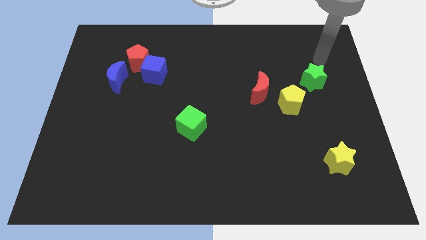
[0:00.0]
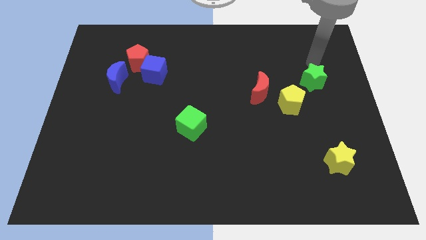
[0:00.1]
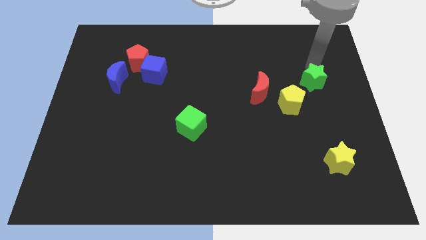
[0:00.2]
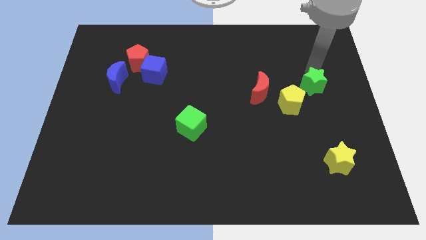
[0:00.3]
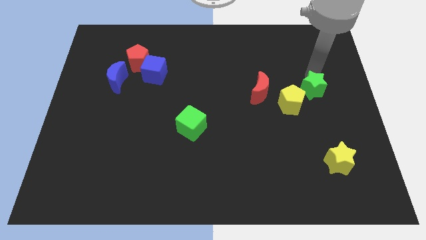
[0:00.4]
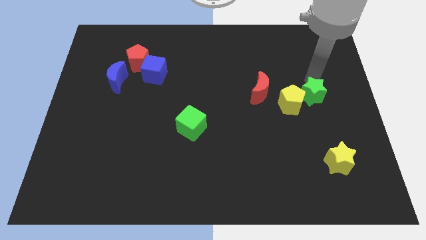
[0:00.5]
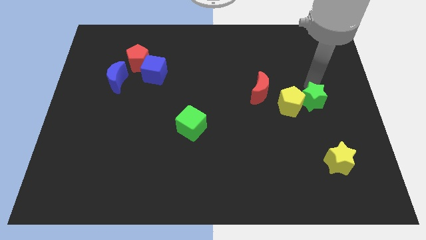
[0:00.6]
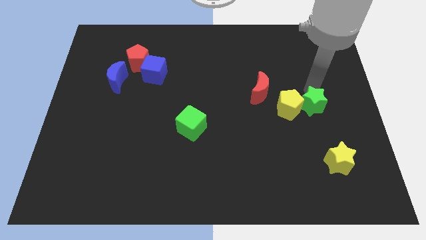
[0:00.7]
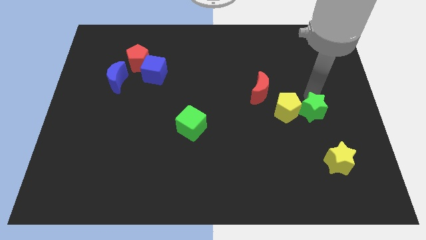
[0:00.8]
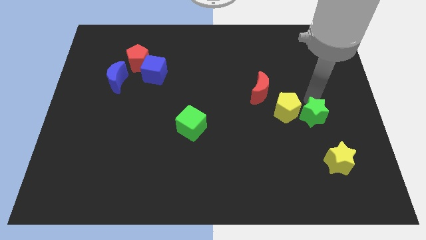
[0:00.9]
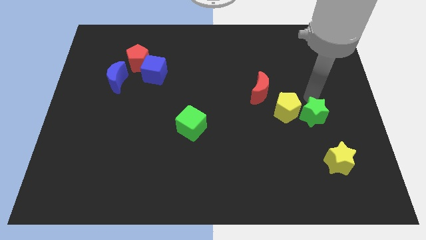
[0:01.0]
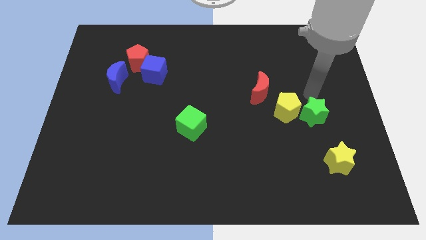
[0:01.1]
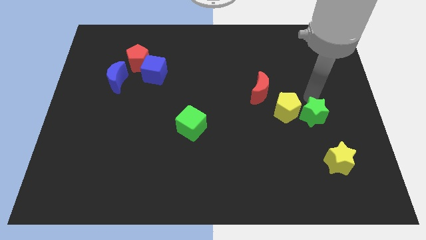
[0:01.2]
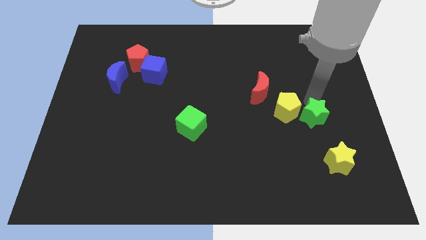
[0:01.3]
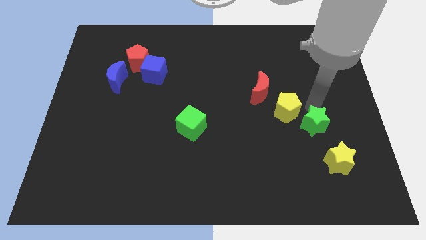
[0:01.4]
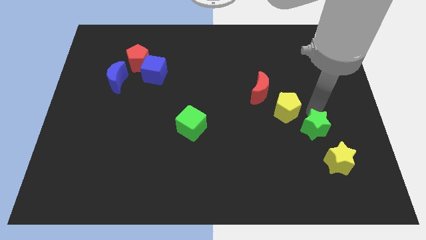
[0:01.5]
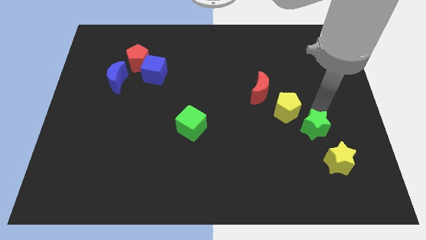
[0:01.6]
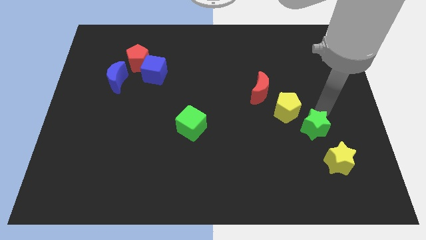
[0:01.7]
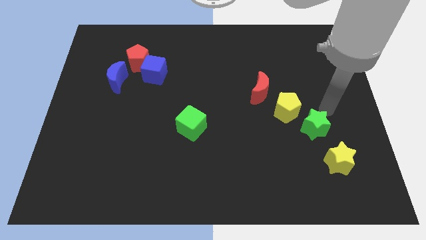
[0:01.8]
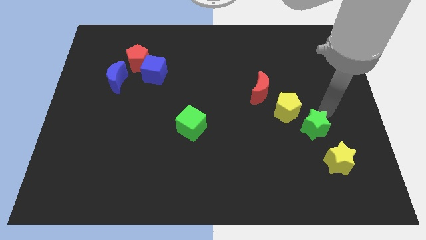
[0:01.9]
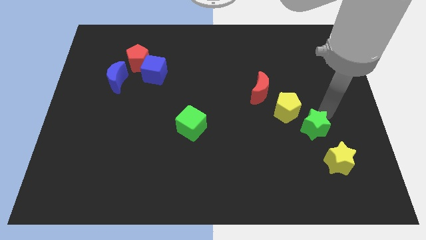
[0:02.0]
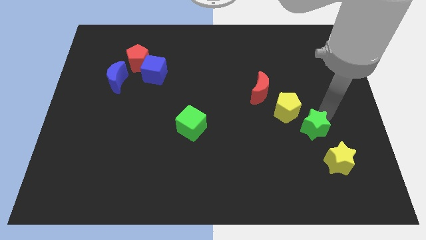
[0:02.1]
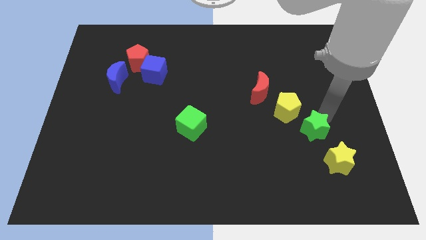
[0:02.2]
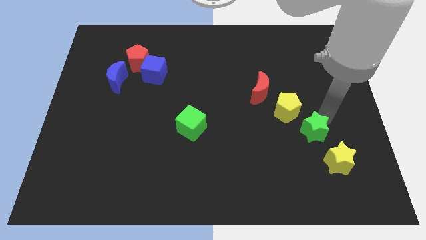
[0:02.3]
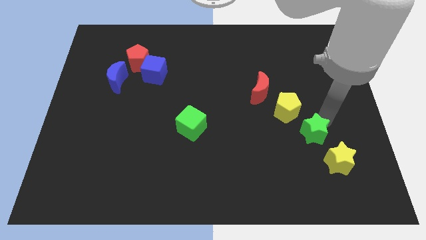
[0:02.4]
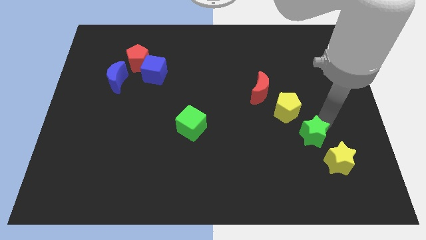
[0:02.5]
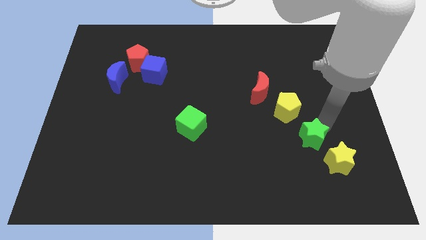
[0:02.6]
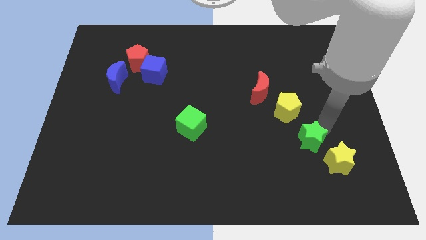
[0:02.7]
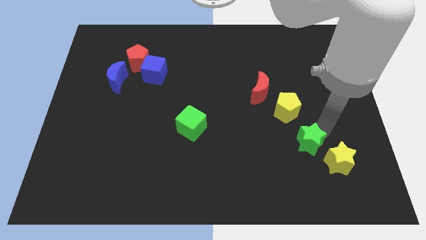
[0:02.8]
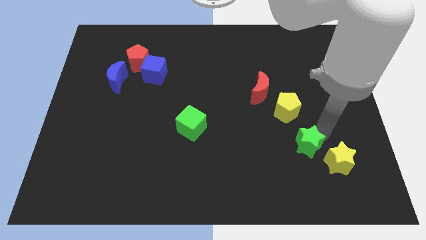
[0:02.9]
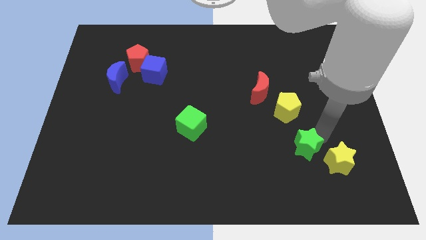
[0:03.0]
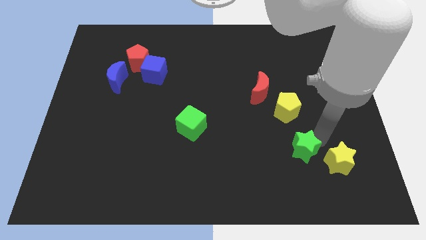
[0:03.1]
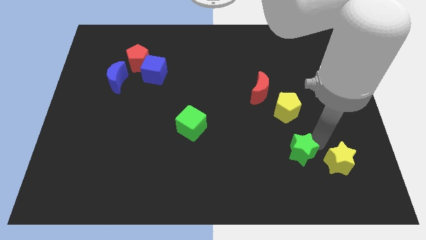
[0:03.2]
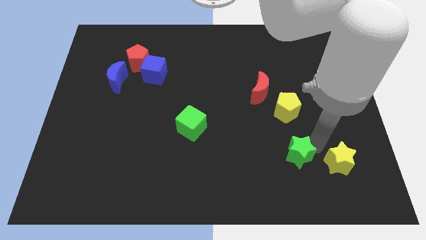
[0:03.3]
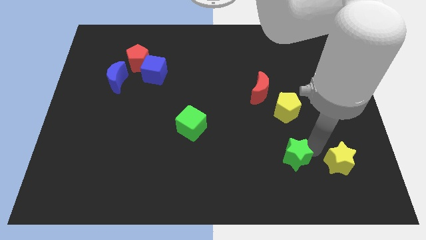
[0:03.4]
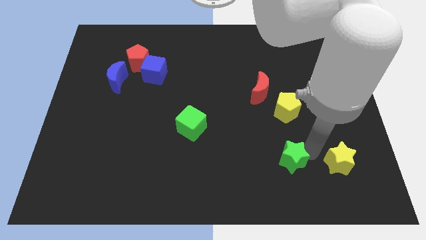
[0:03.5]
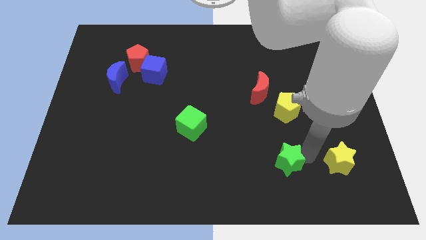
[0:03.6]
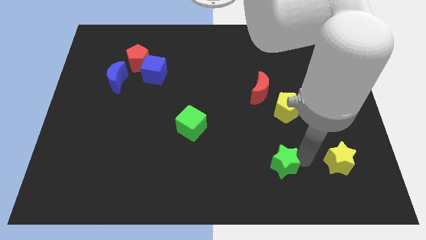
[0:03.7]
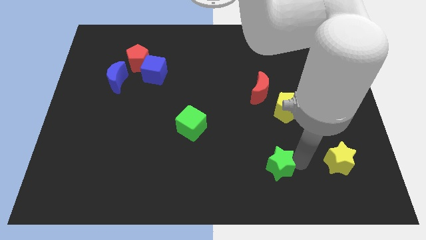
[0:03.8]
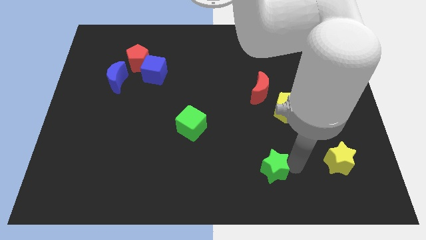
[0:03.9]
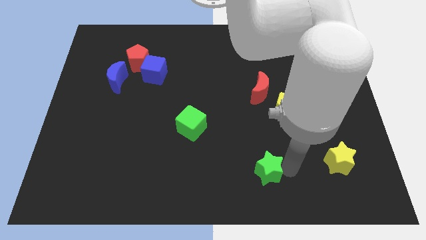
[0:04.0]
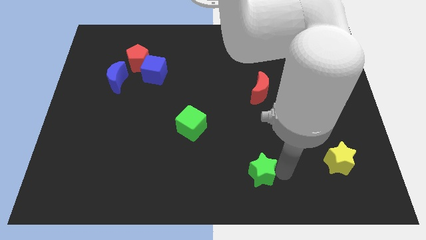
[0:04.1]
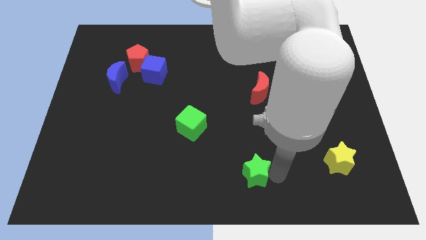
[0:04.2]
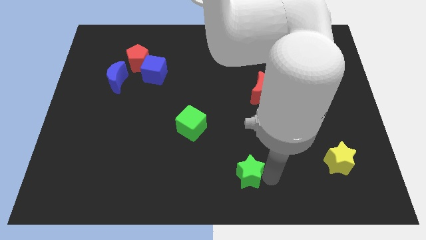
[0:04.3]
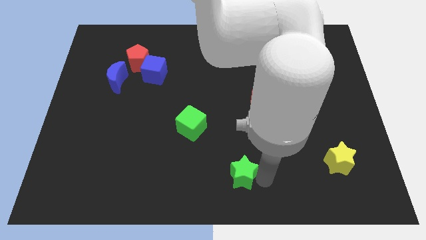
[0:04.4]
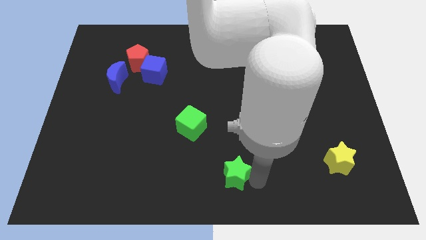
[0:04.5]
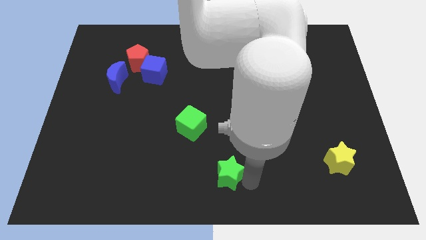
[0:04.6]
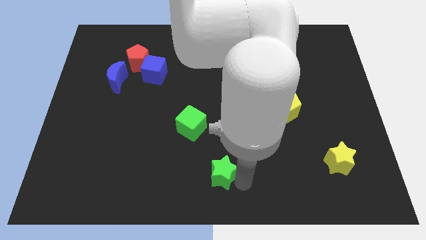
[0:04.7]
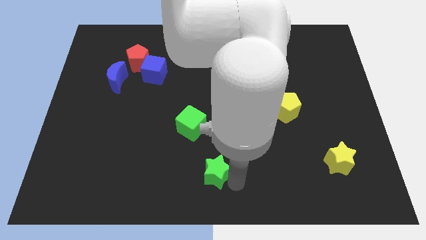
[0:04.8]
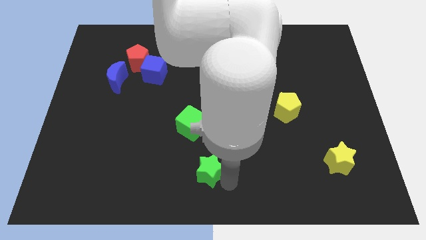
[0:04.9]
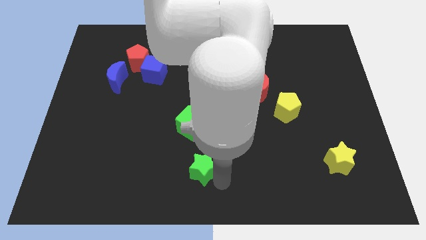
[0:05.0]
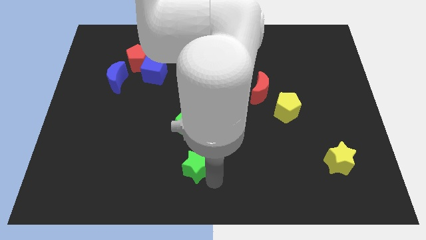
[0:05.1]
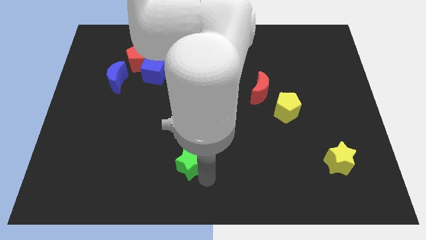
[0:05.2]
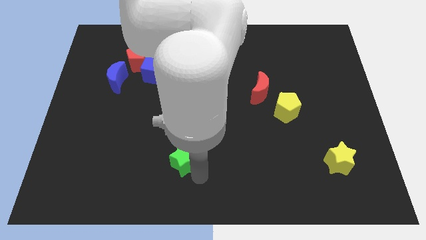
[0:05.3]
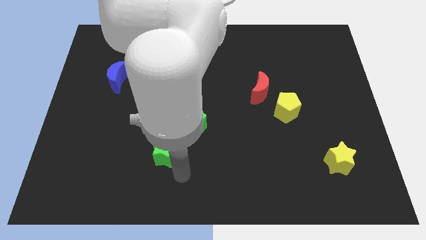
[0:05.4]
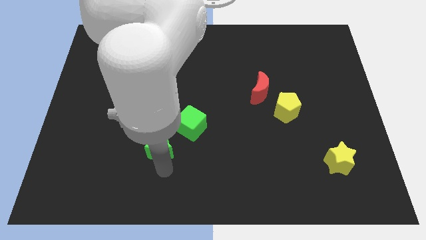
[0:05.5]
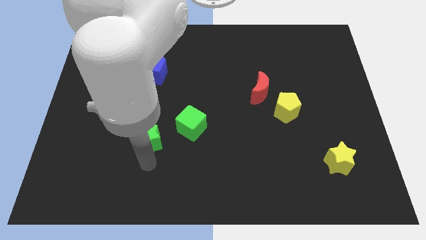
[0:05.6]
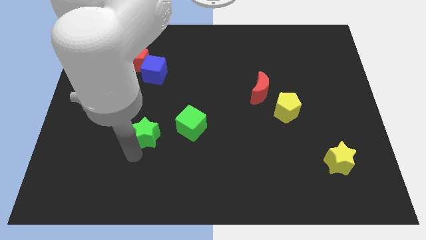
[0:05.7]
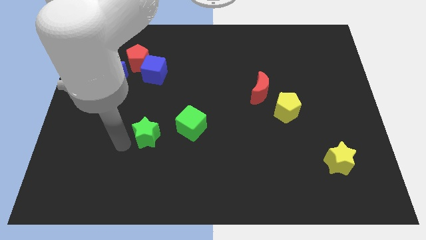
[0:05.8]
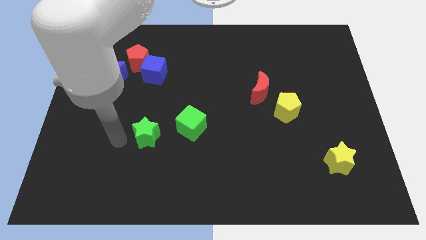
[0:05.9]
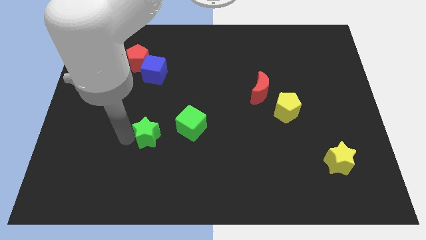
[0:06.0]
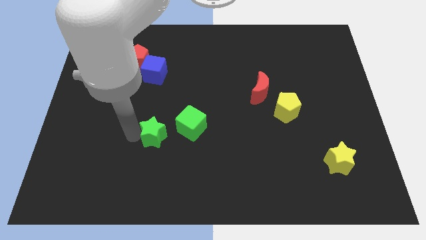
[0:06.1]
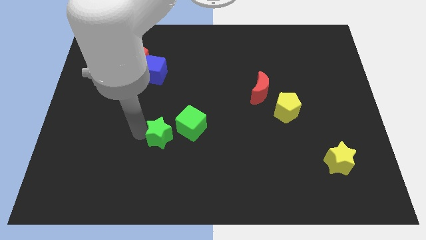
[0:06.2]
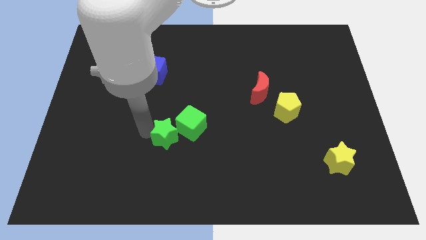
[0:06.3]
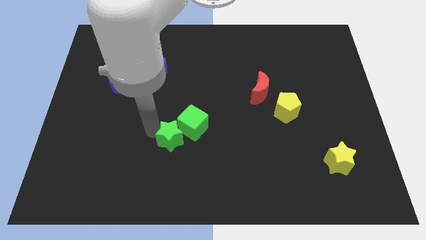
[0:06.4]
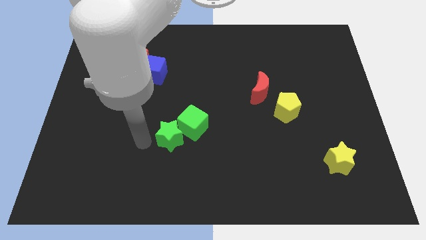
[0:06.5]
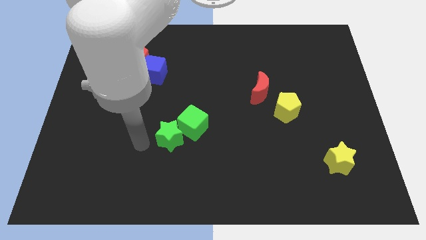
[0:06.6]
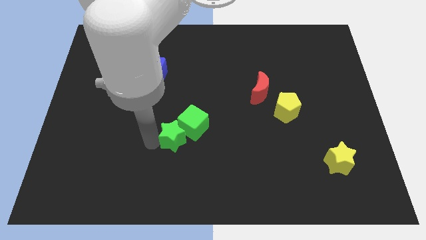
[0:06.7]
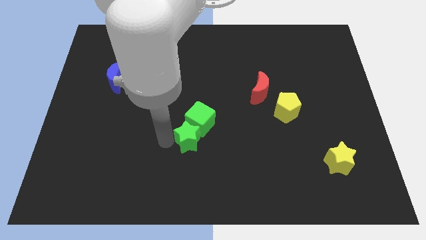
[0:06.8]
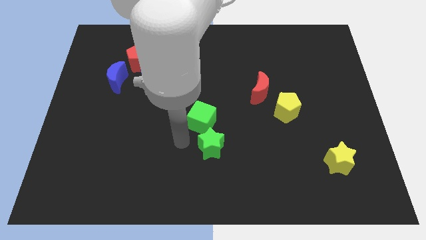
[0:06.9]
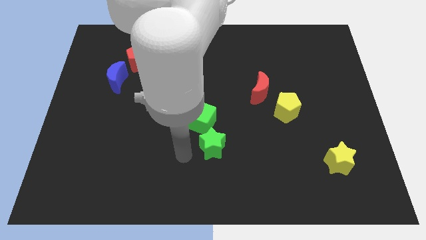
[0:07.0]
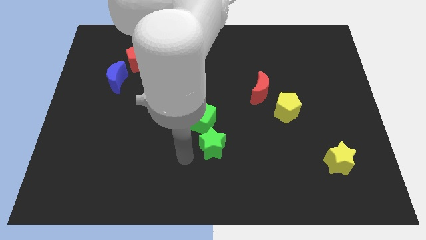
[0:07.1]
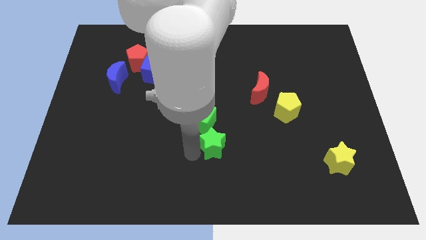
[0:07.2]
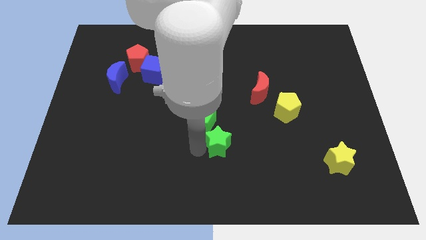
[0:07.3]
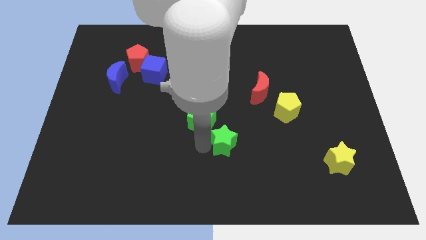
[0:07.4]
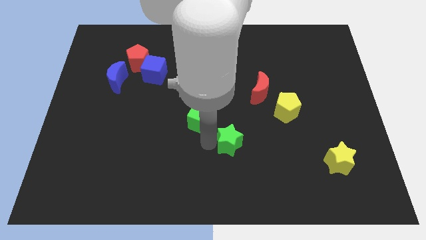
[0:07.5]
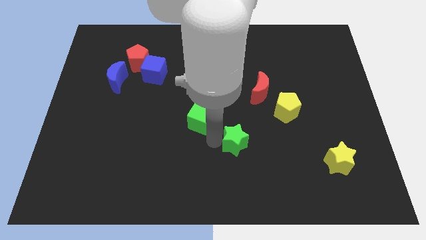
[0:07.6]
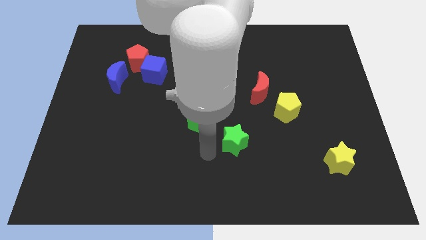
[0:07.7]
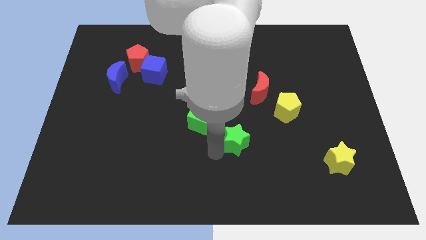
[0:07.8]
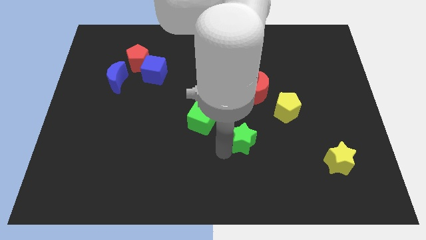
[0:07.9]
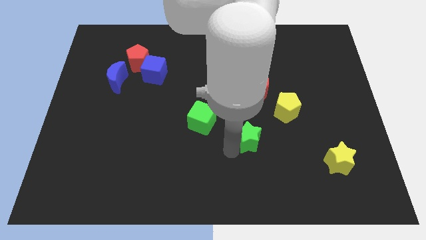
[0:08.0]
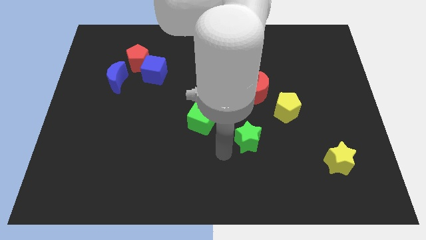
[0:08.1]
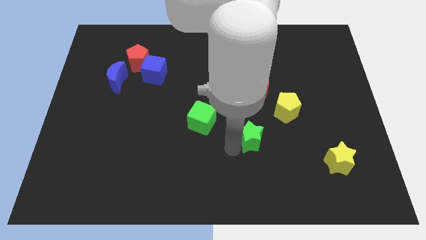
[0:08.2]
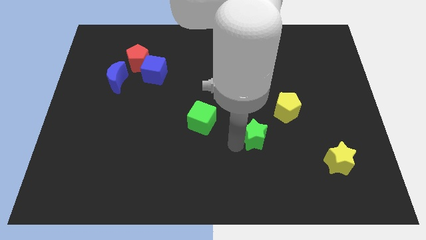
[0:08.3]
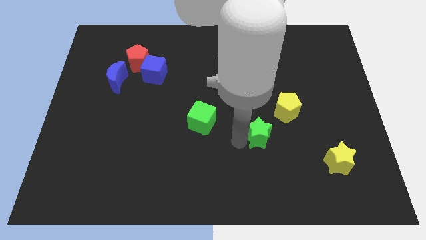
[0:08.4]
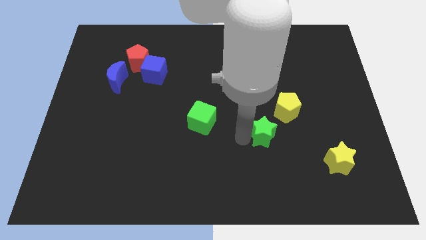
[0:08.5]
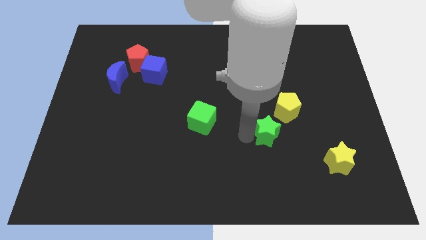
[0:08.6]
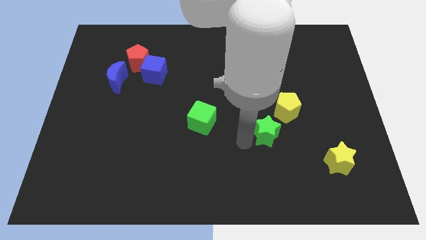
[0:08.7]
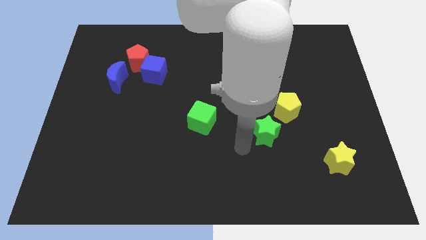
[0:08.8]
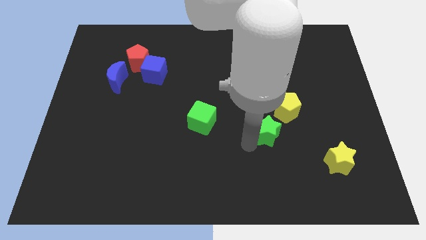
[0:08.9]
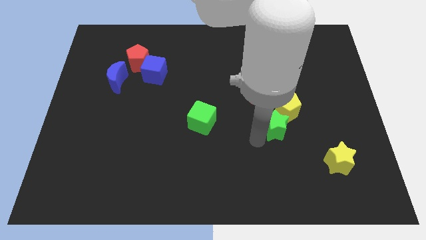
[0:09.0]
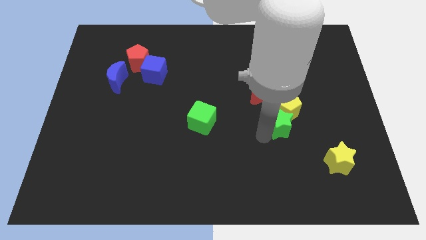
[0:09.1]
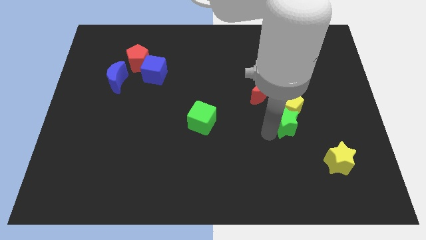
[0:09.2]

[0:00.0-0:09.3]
put the green star diagonally down and to the right of the red moon
